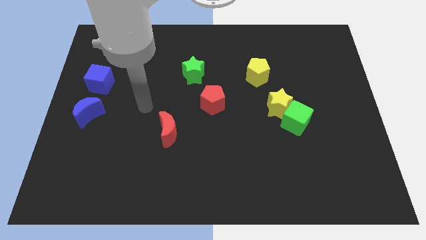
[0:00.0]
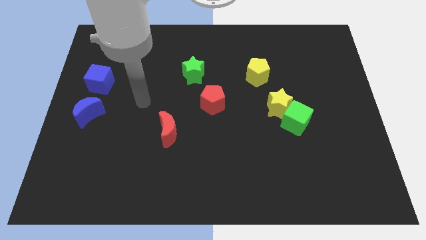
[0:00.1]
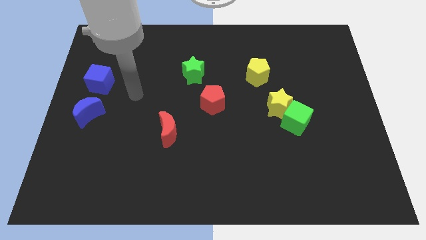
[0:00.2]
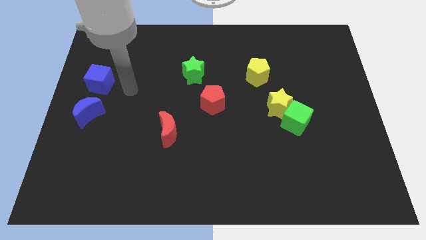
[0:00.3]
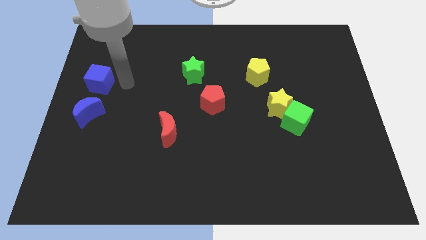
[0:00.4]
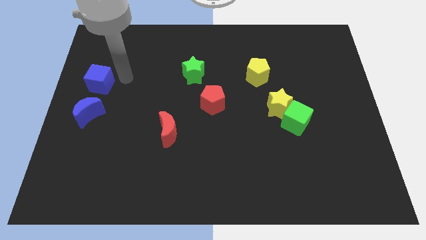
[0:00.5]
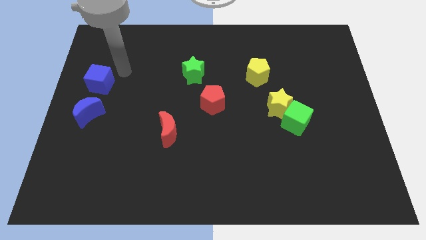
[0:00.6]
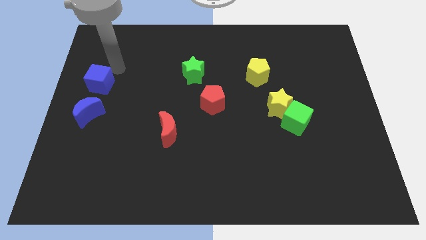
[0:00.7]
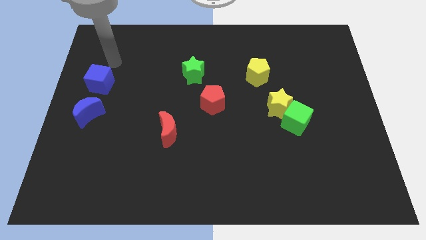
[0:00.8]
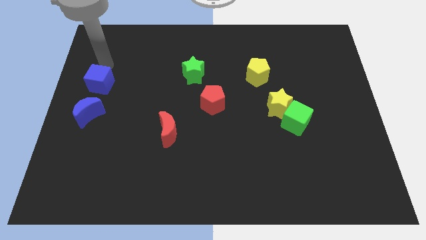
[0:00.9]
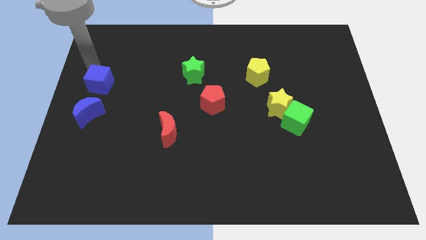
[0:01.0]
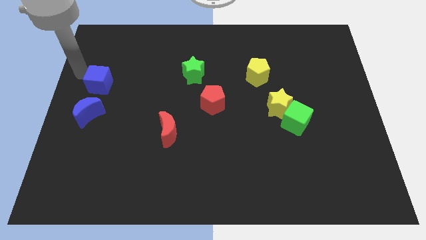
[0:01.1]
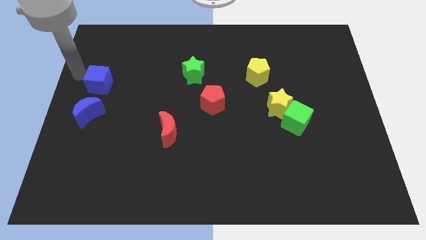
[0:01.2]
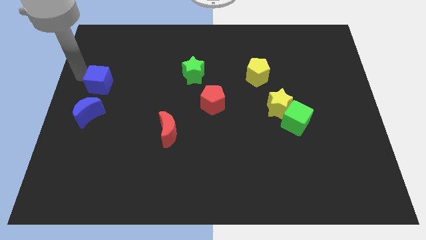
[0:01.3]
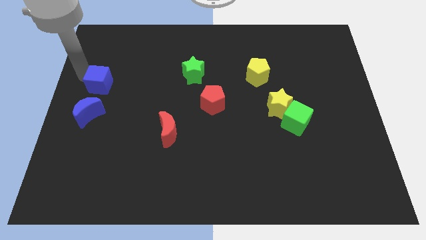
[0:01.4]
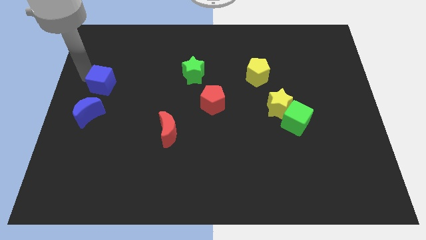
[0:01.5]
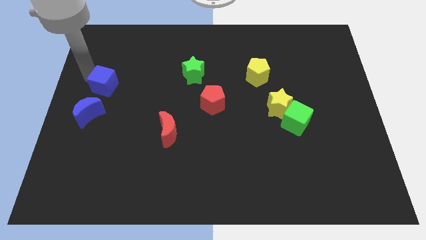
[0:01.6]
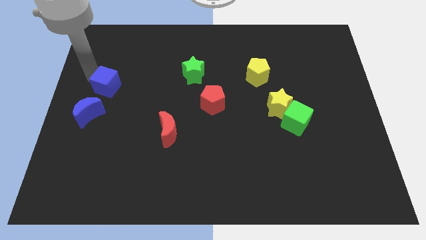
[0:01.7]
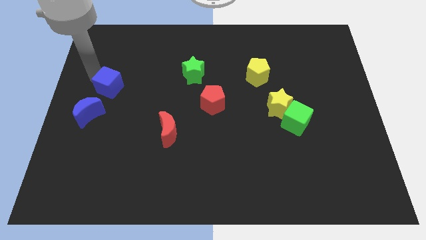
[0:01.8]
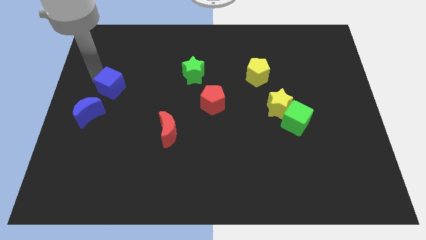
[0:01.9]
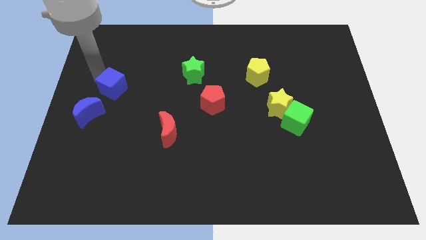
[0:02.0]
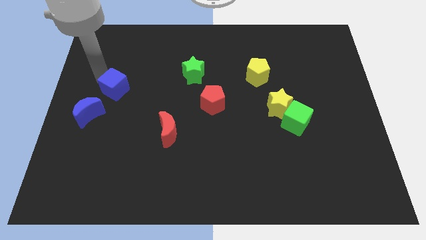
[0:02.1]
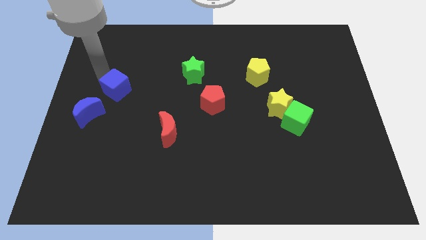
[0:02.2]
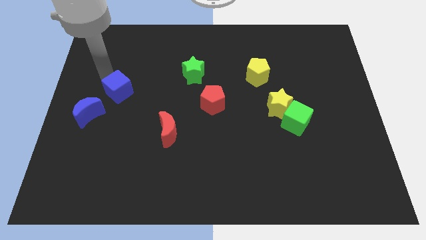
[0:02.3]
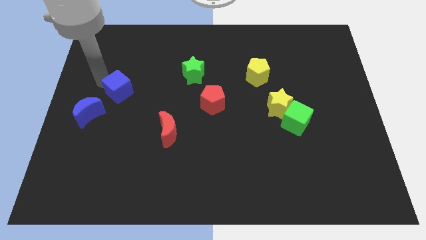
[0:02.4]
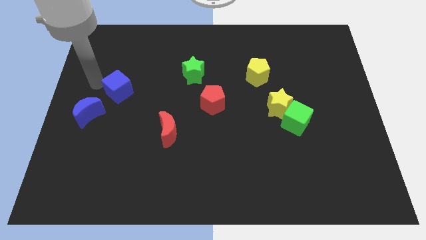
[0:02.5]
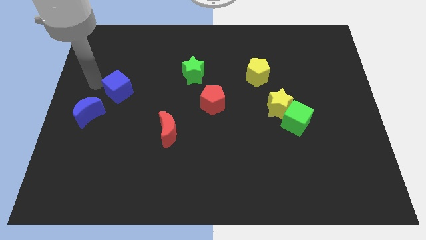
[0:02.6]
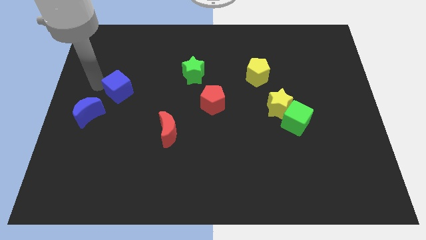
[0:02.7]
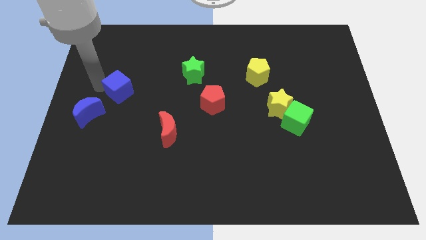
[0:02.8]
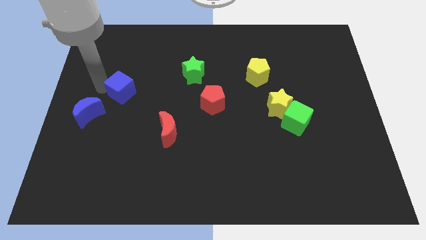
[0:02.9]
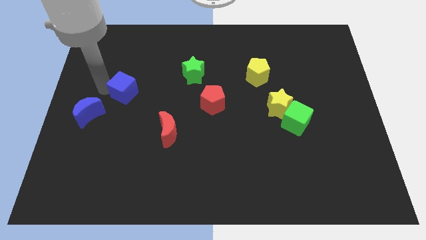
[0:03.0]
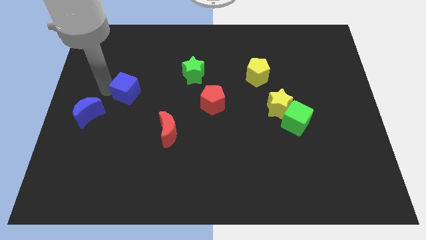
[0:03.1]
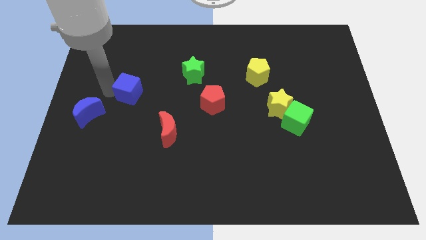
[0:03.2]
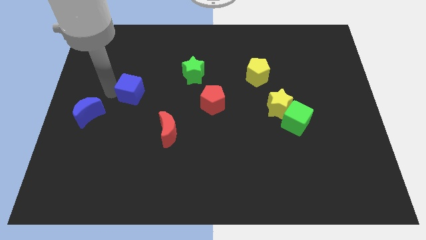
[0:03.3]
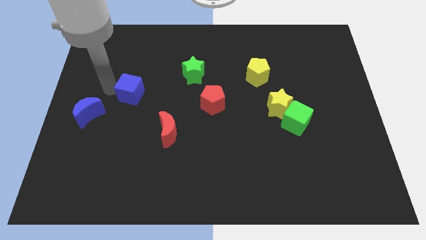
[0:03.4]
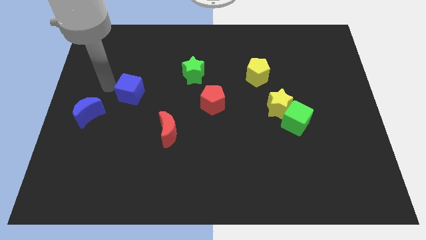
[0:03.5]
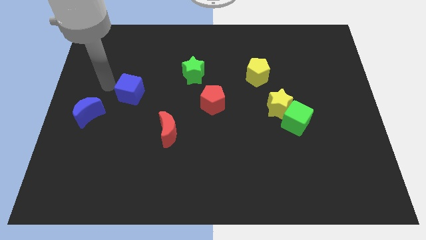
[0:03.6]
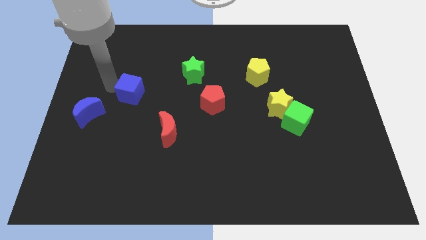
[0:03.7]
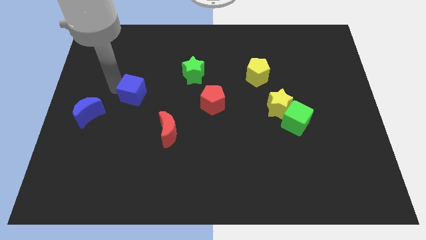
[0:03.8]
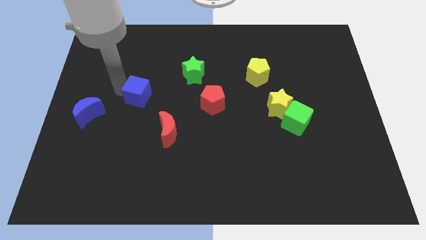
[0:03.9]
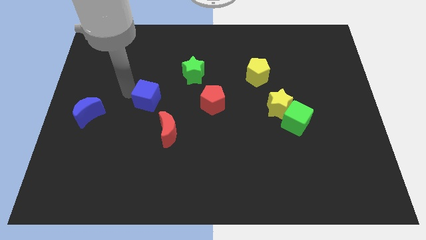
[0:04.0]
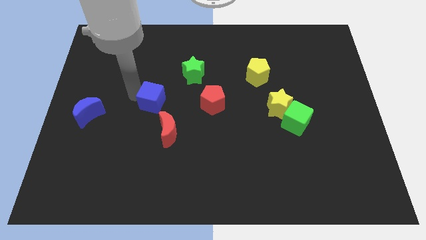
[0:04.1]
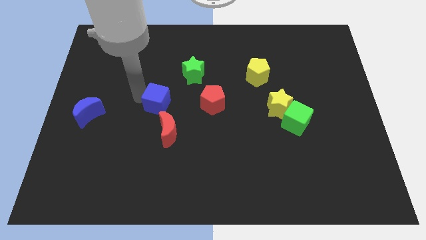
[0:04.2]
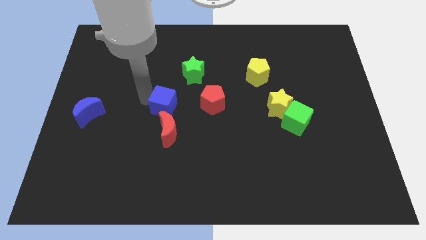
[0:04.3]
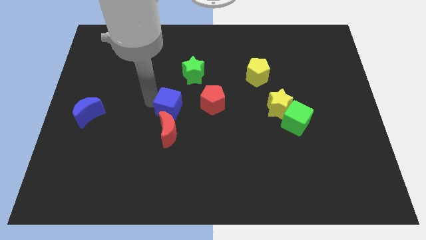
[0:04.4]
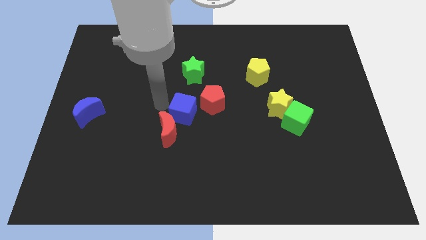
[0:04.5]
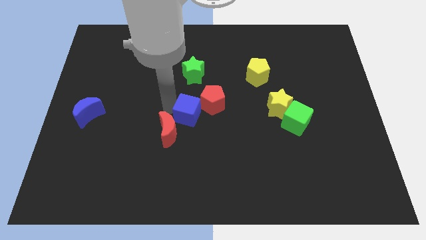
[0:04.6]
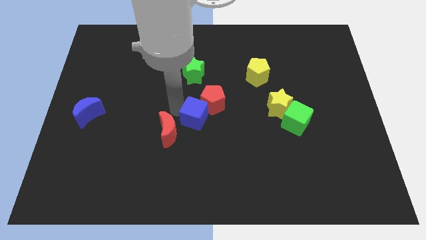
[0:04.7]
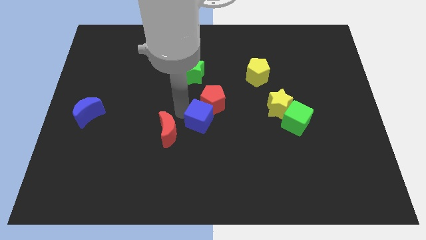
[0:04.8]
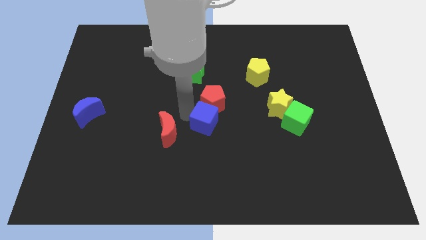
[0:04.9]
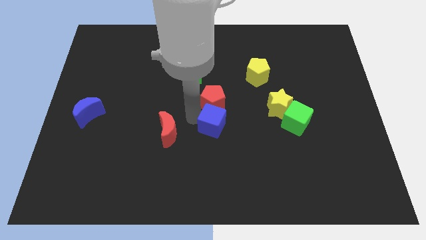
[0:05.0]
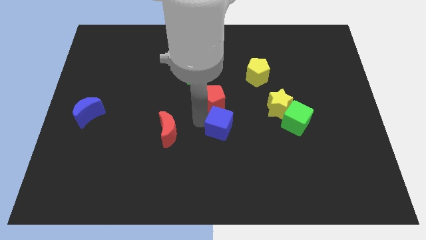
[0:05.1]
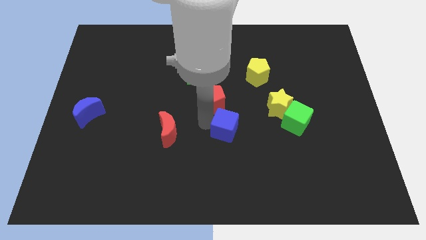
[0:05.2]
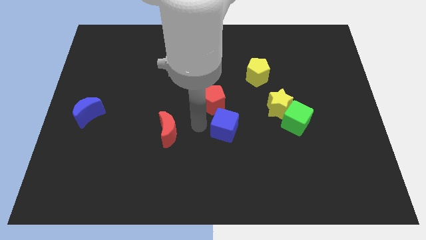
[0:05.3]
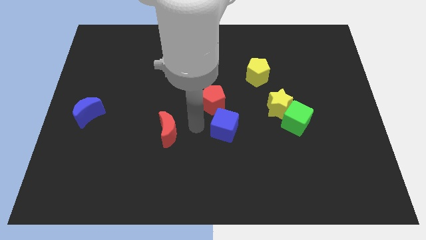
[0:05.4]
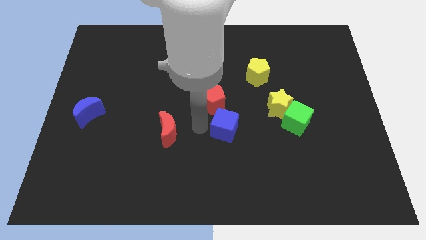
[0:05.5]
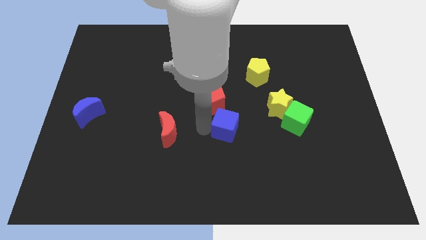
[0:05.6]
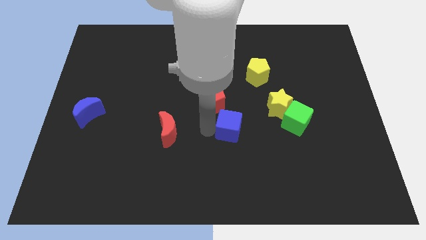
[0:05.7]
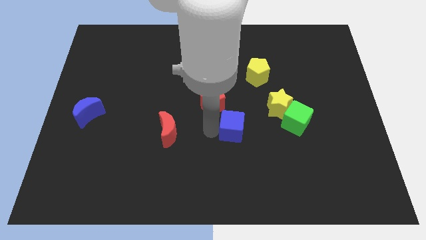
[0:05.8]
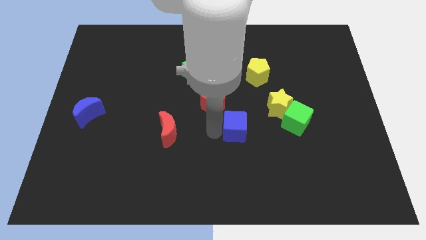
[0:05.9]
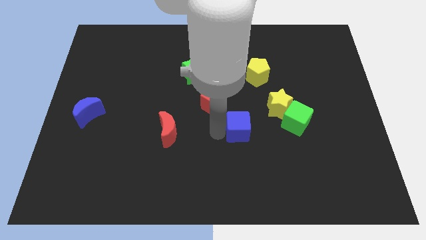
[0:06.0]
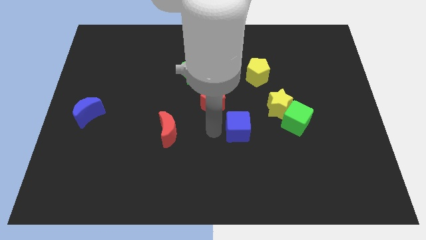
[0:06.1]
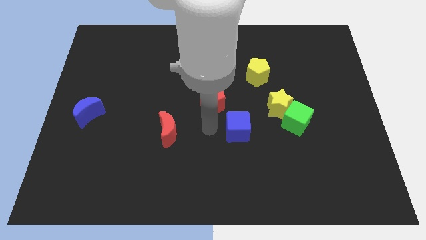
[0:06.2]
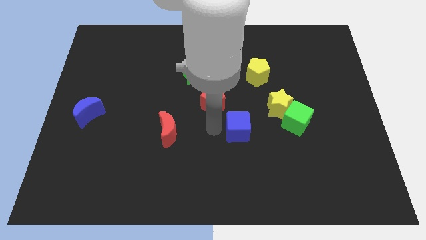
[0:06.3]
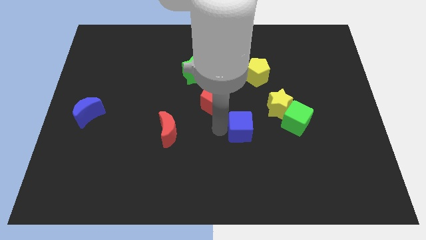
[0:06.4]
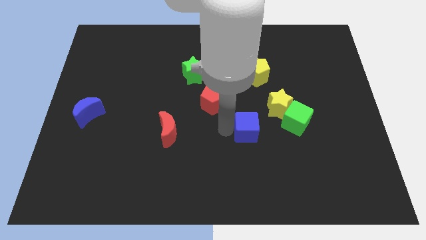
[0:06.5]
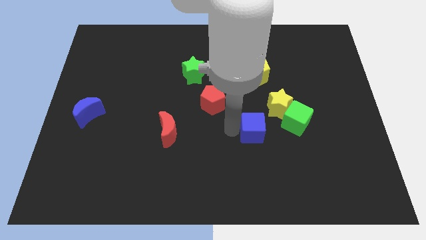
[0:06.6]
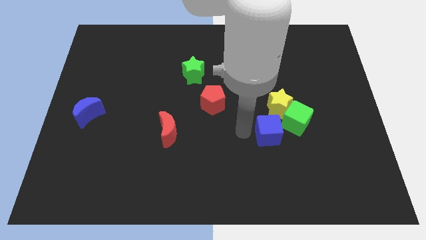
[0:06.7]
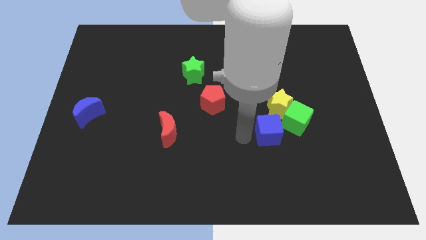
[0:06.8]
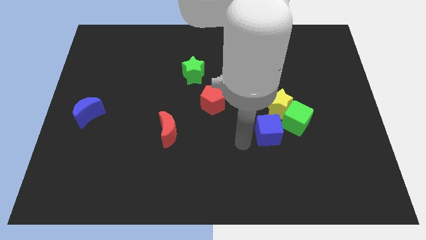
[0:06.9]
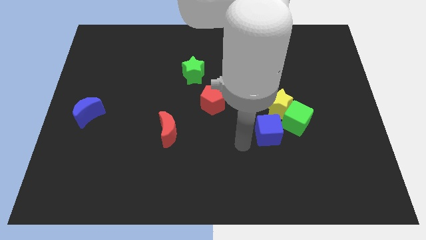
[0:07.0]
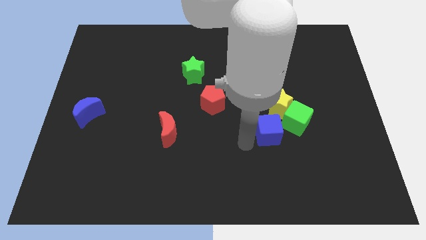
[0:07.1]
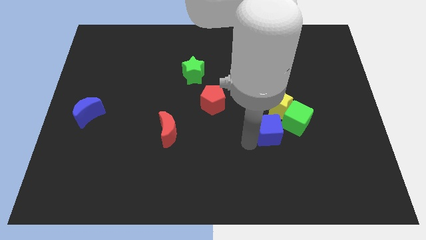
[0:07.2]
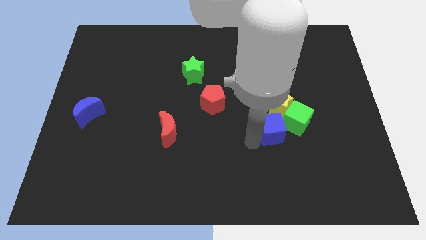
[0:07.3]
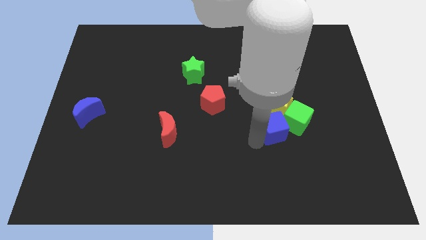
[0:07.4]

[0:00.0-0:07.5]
put the blue cube towards the green cube
